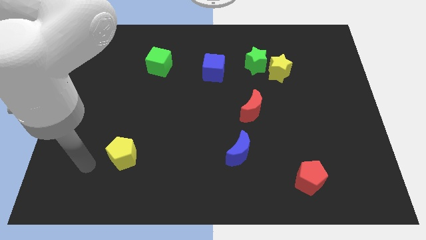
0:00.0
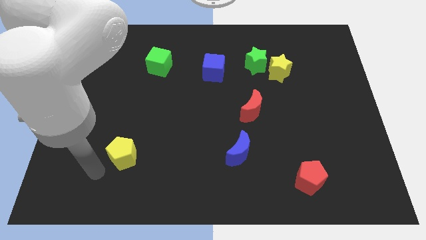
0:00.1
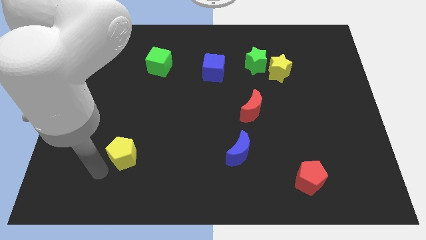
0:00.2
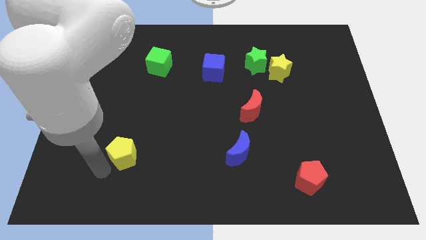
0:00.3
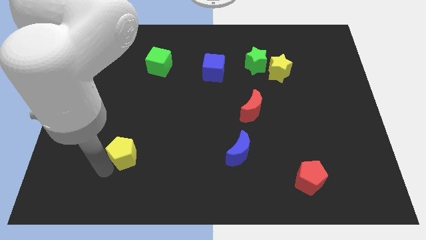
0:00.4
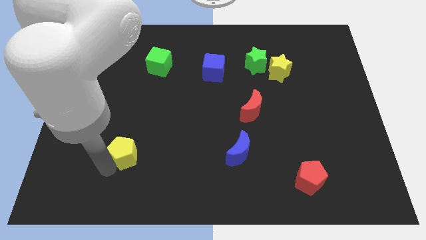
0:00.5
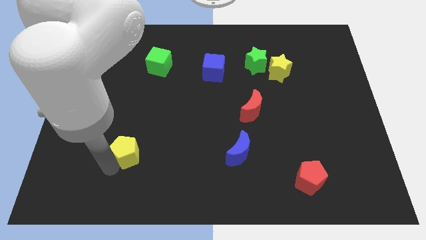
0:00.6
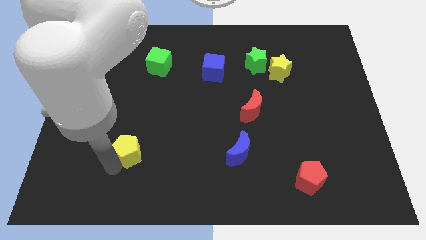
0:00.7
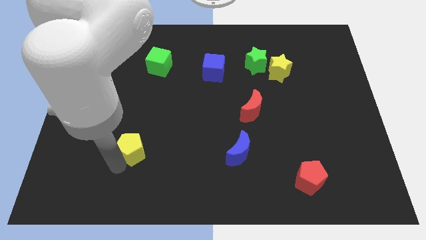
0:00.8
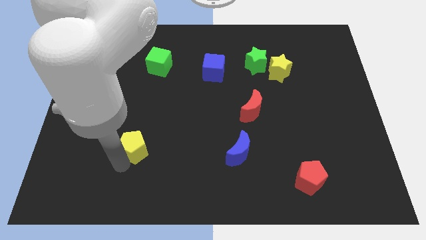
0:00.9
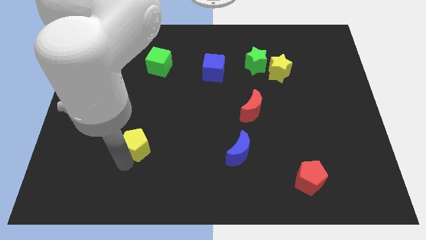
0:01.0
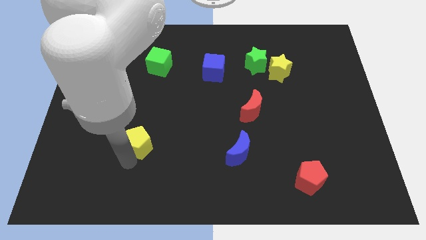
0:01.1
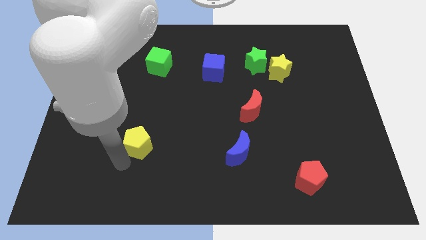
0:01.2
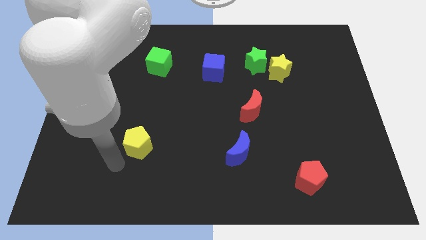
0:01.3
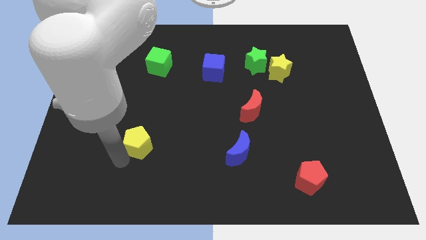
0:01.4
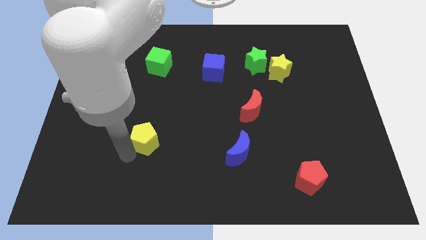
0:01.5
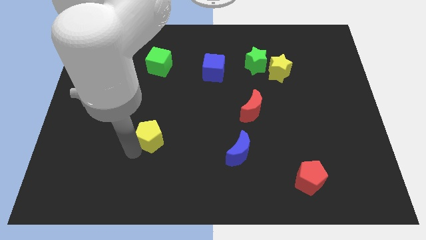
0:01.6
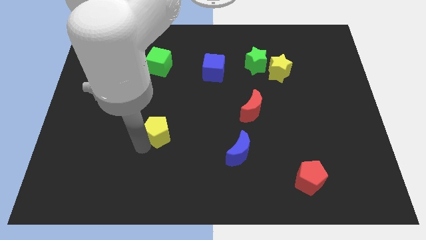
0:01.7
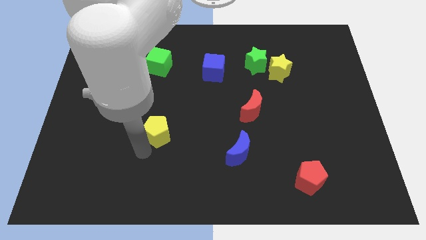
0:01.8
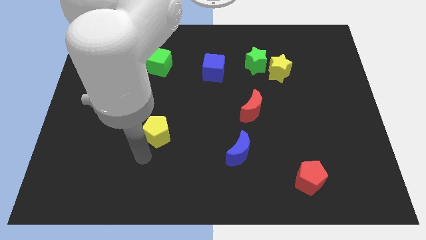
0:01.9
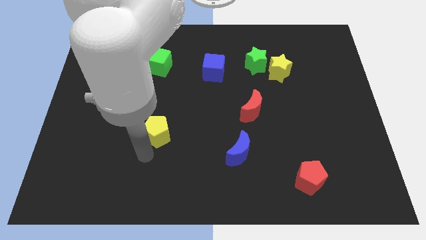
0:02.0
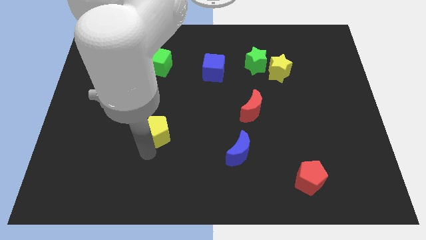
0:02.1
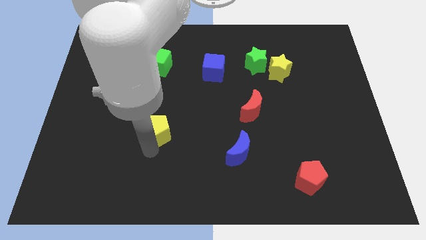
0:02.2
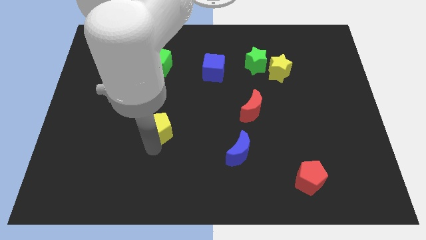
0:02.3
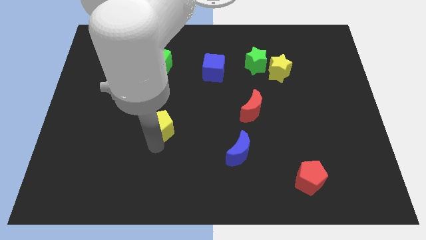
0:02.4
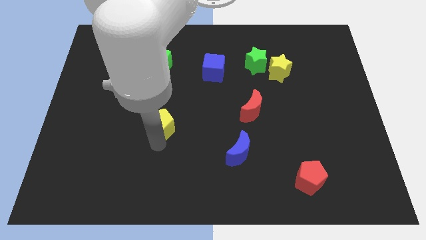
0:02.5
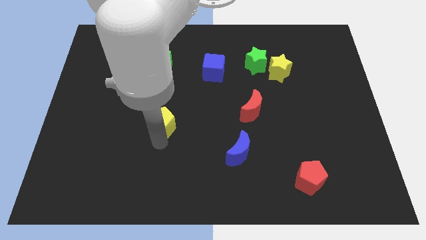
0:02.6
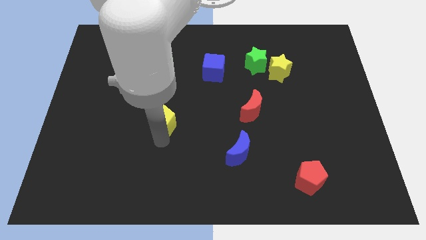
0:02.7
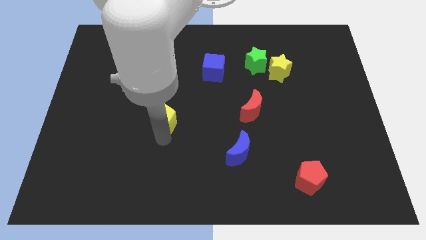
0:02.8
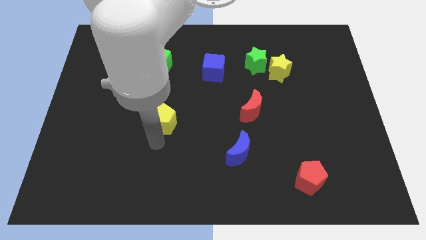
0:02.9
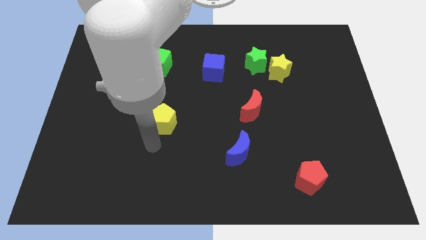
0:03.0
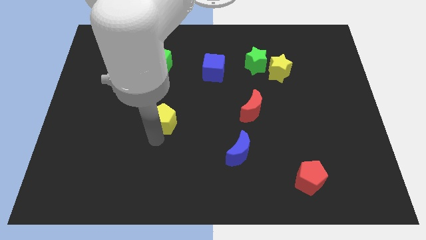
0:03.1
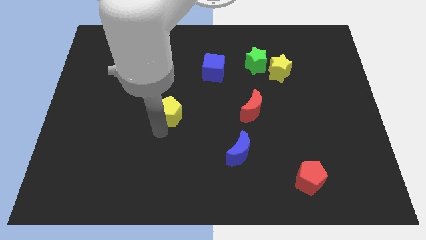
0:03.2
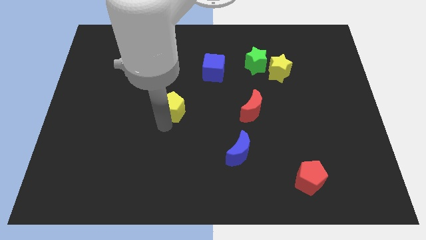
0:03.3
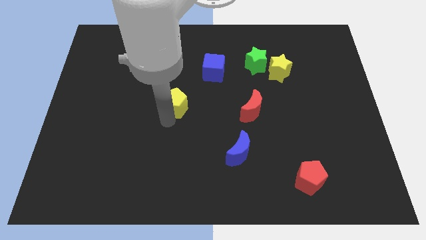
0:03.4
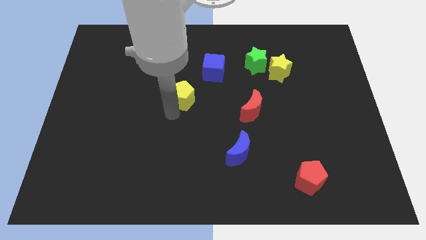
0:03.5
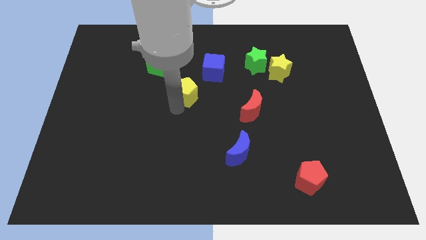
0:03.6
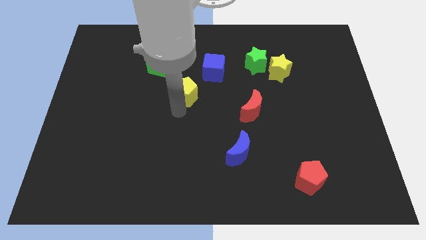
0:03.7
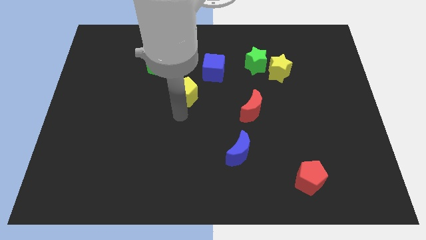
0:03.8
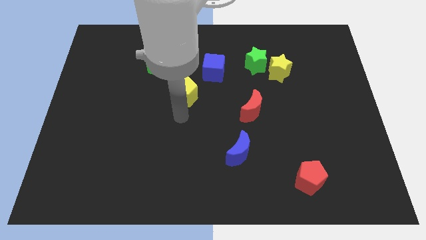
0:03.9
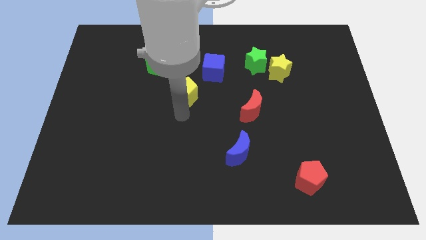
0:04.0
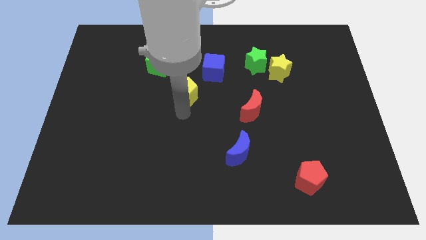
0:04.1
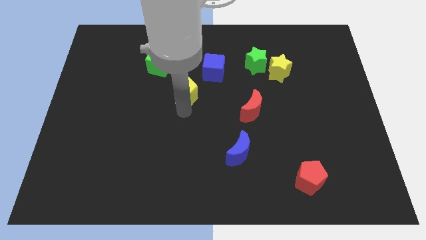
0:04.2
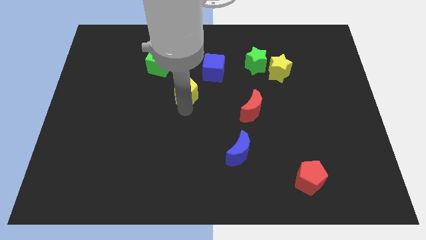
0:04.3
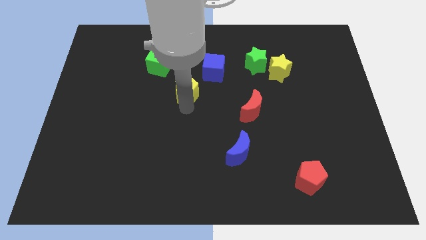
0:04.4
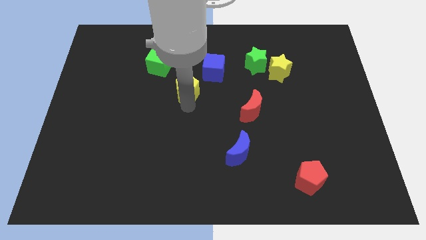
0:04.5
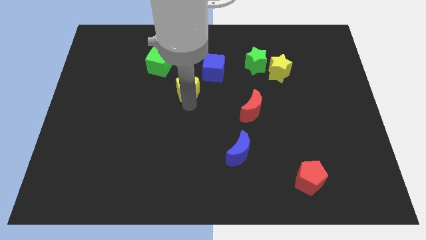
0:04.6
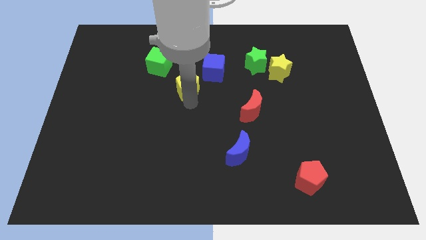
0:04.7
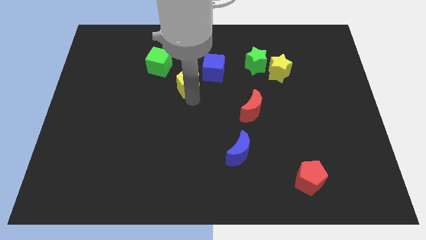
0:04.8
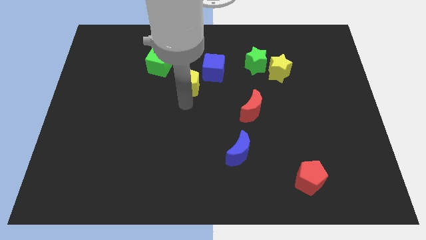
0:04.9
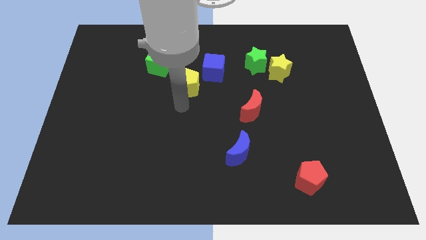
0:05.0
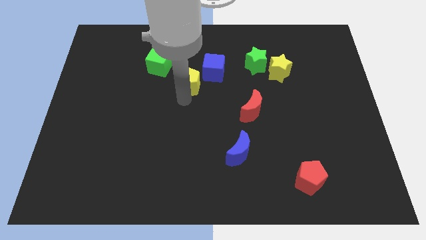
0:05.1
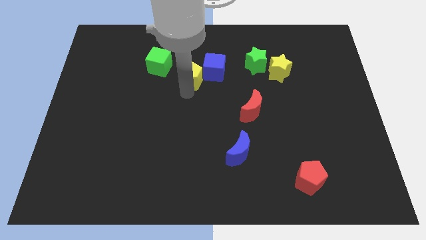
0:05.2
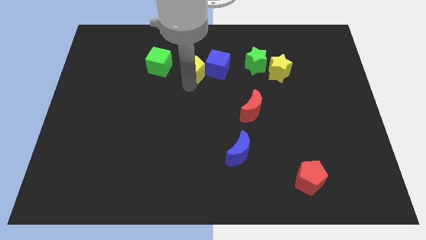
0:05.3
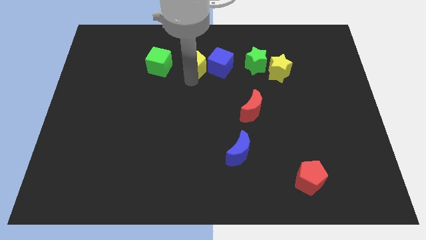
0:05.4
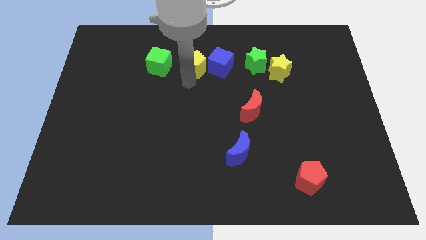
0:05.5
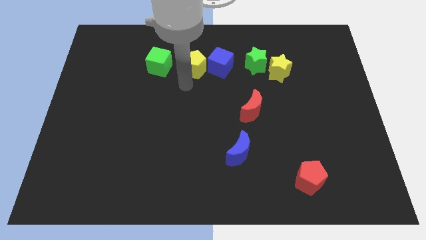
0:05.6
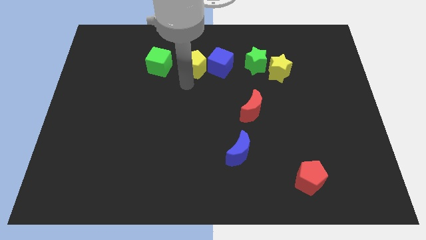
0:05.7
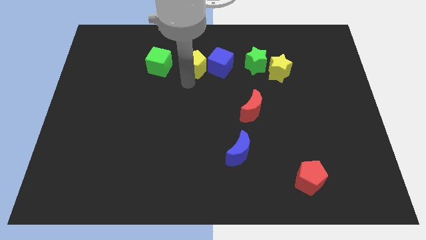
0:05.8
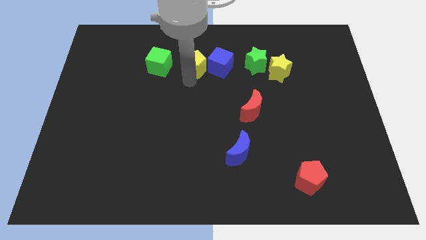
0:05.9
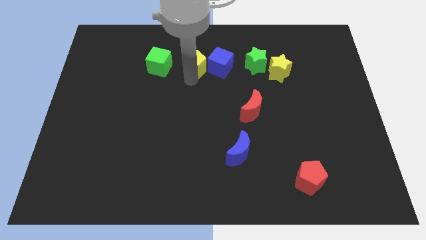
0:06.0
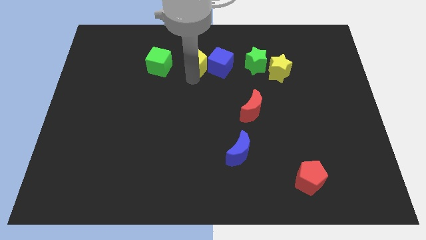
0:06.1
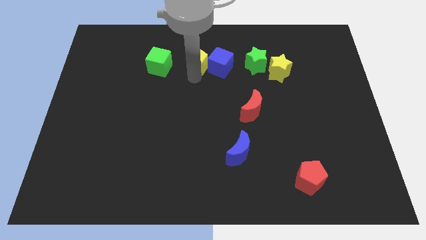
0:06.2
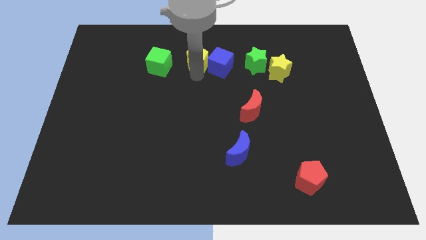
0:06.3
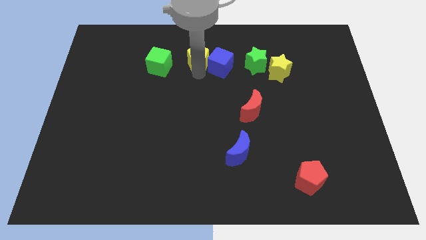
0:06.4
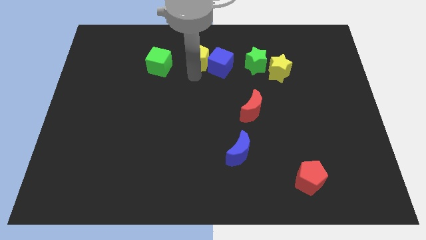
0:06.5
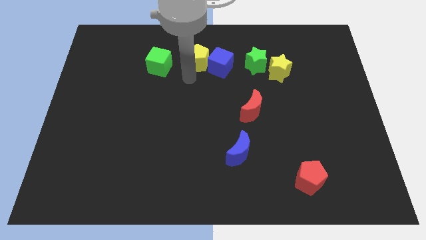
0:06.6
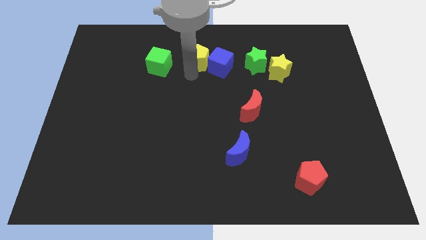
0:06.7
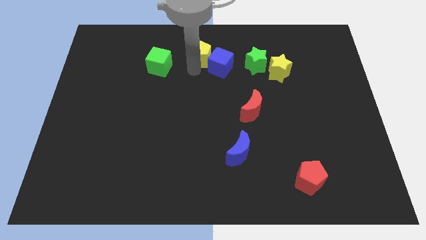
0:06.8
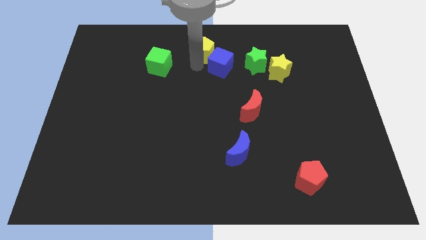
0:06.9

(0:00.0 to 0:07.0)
slide the yellow pentagon to the top
